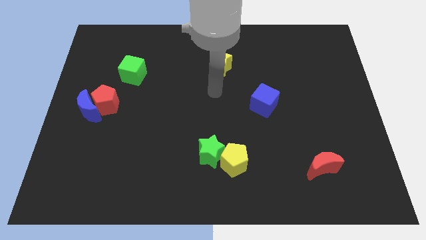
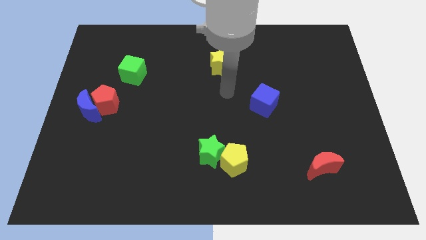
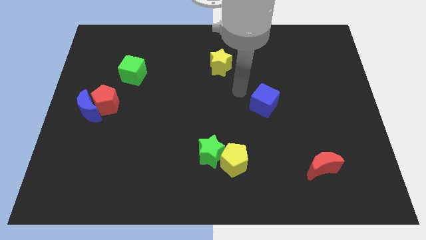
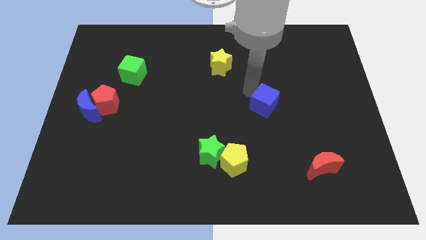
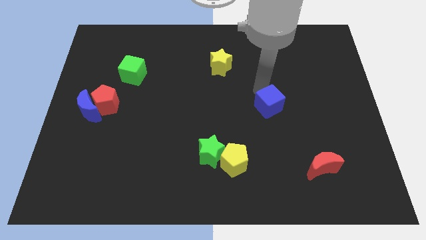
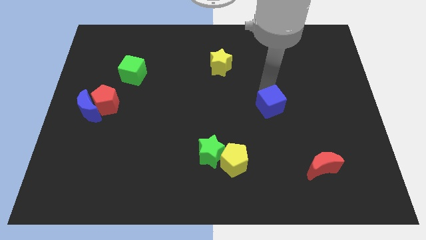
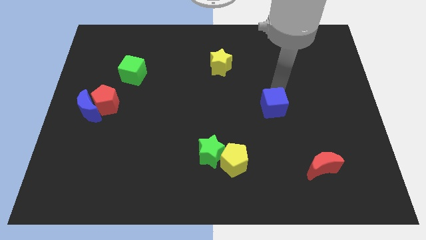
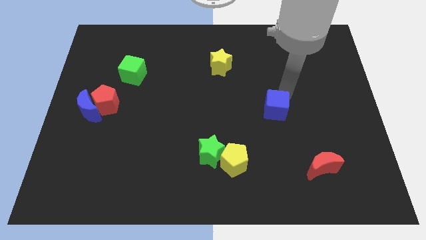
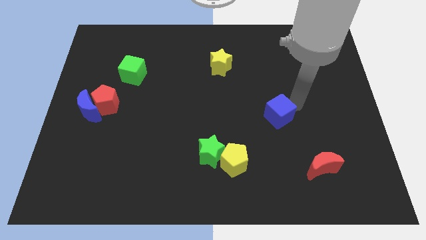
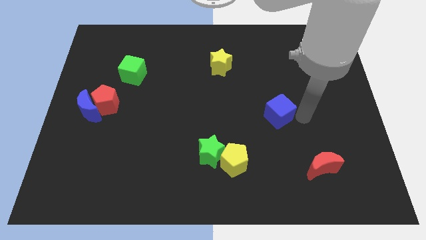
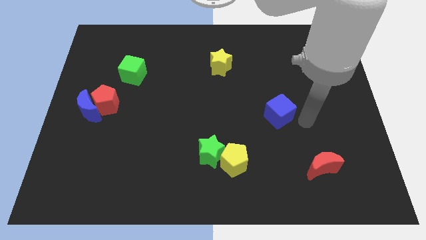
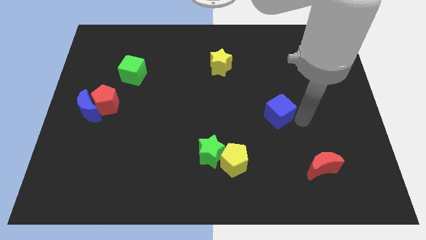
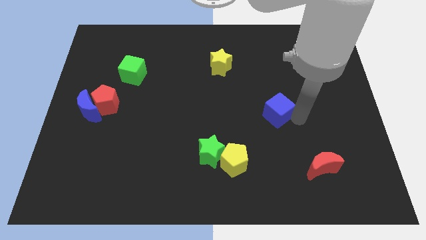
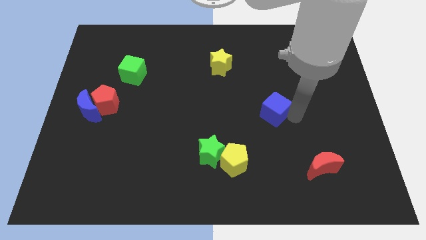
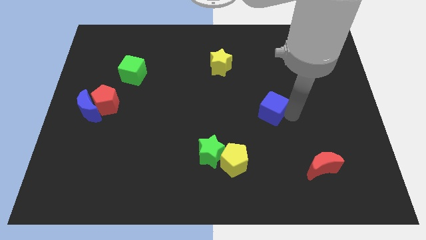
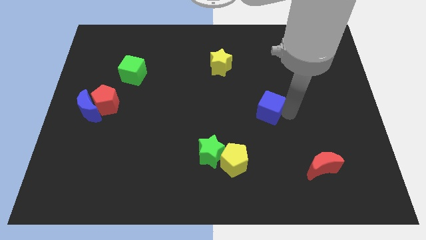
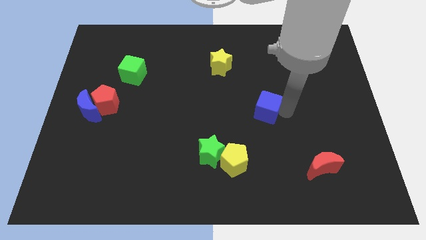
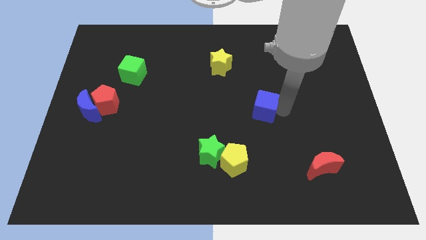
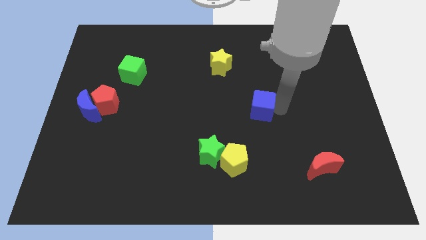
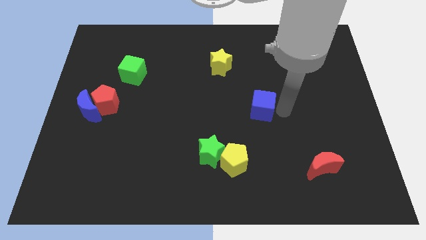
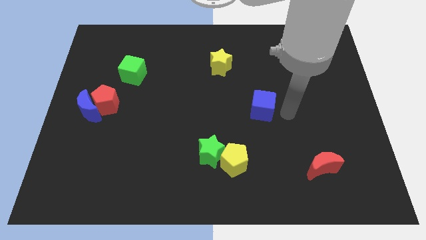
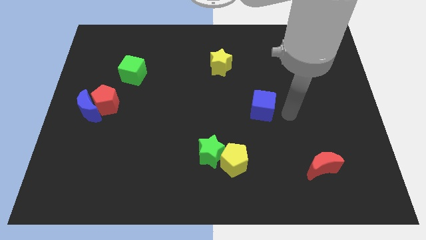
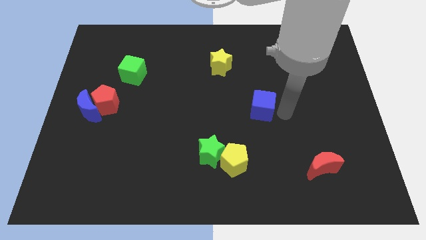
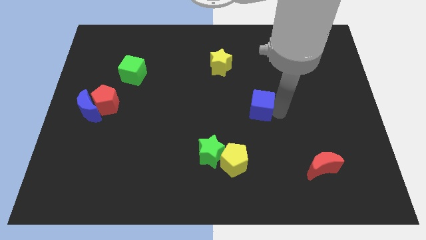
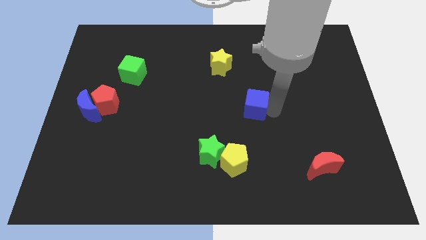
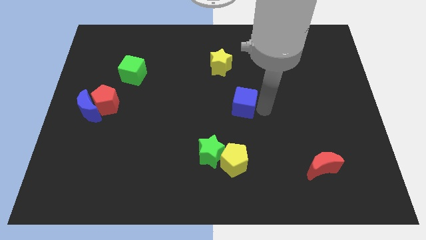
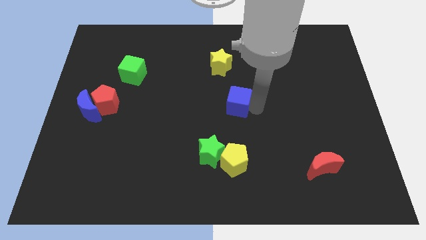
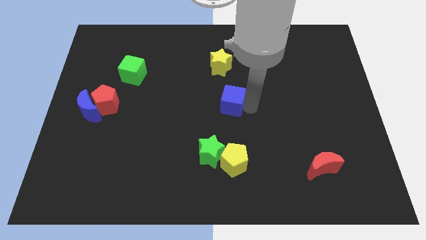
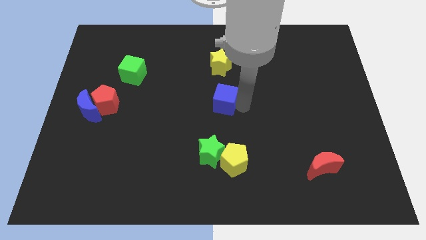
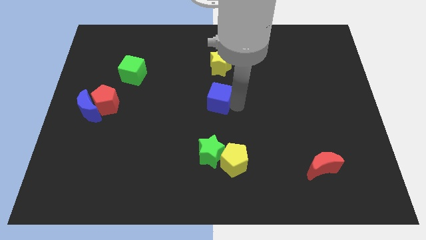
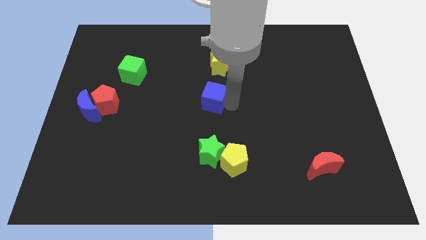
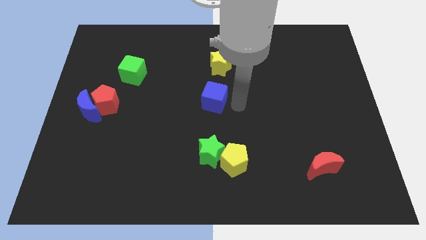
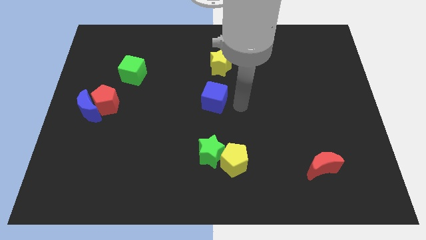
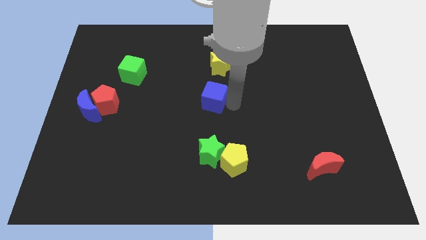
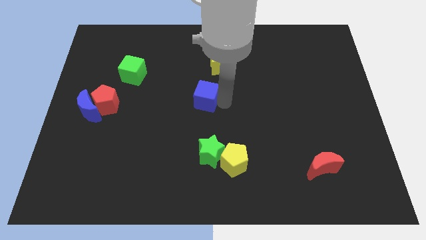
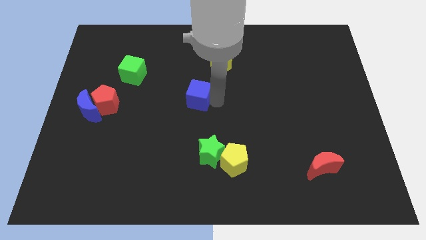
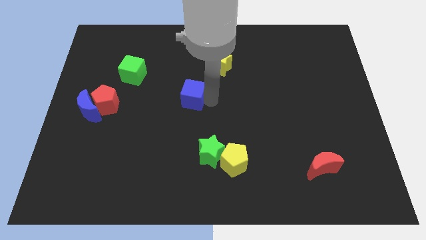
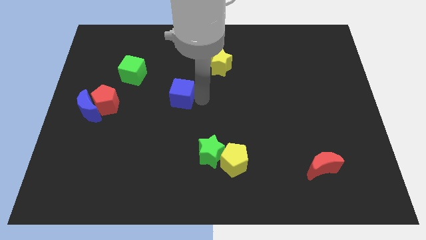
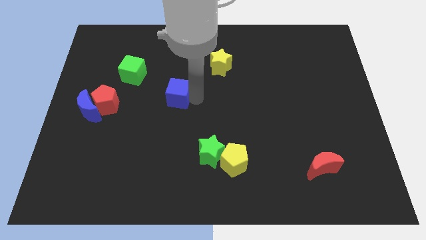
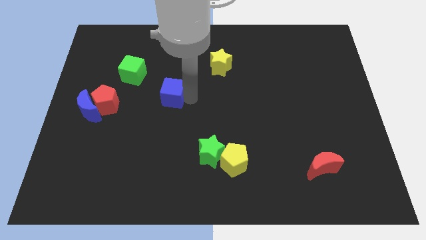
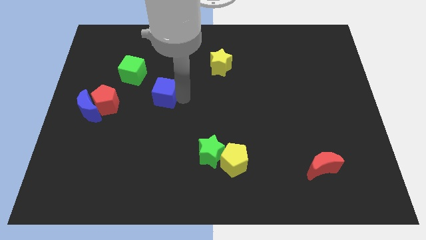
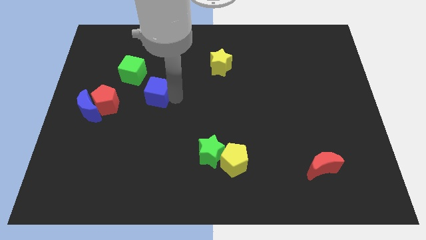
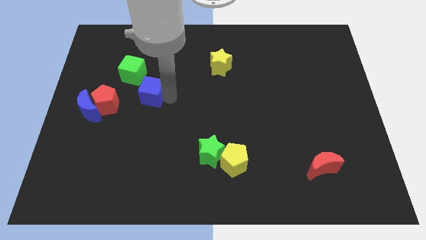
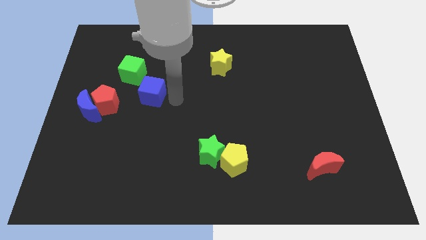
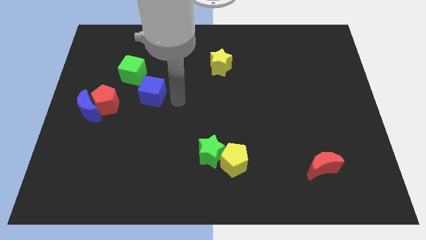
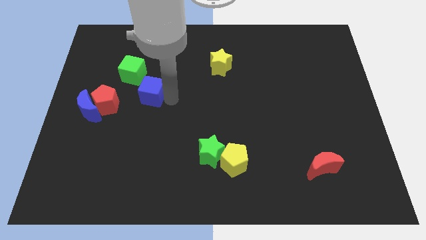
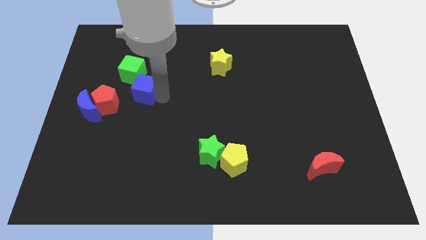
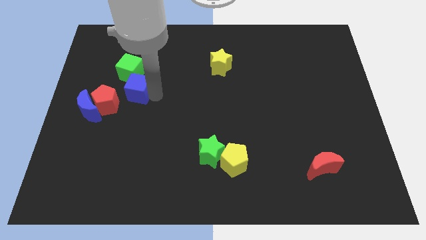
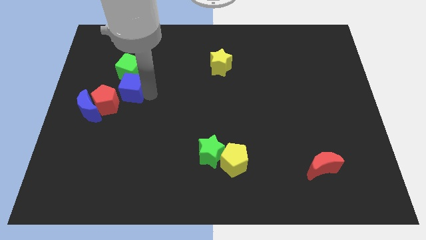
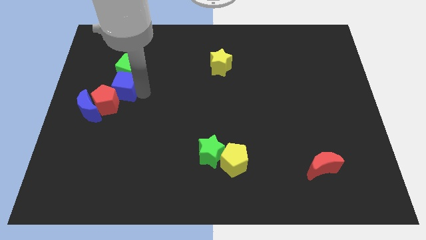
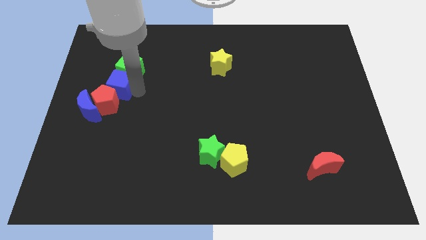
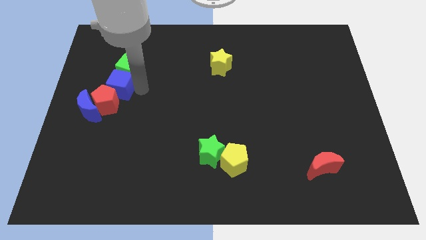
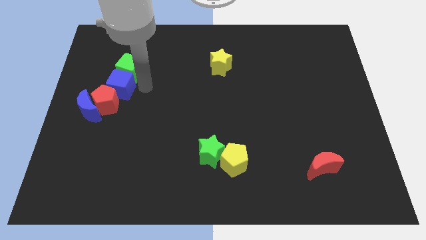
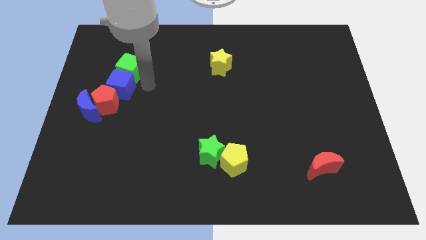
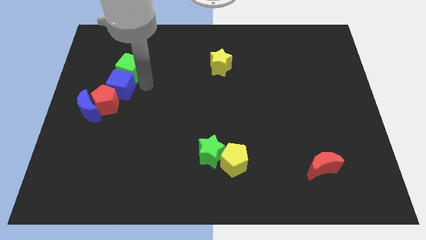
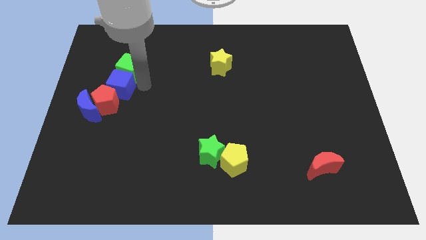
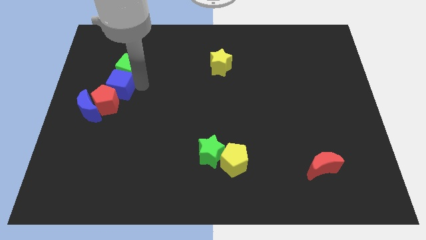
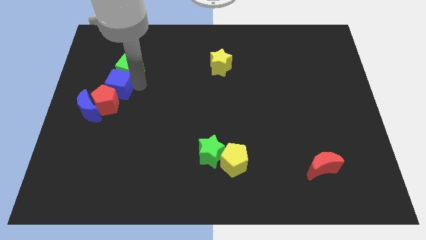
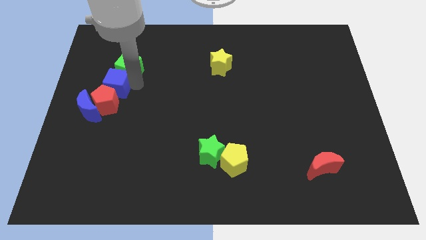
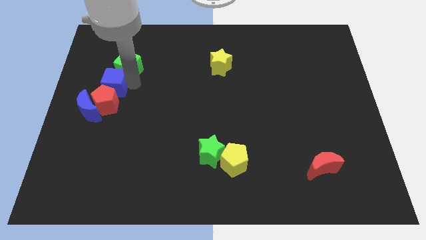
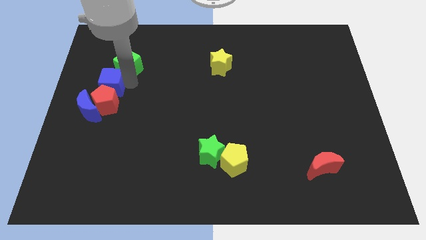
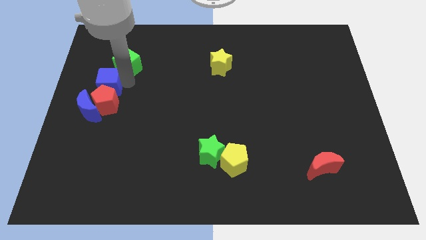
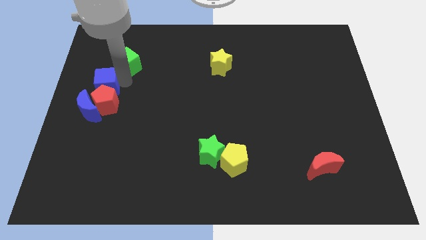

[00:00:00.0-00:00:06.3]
move the blue cube to the left side
